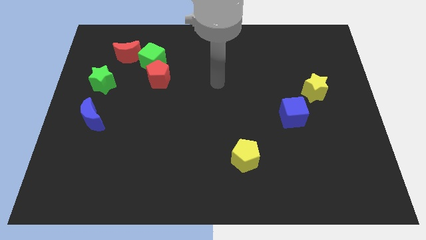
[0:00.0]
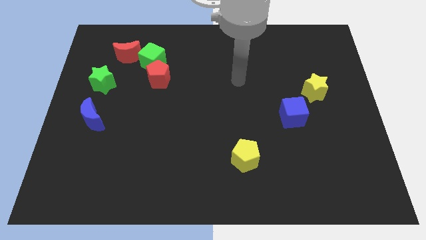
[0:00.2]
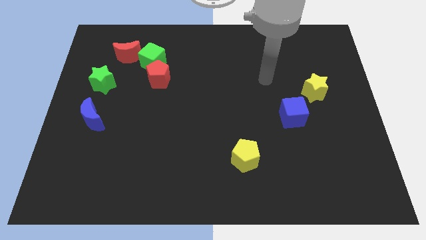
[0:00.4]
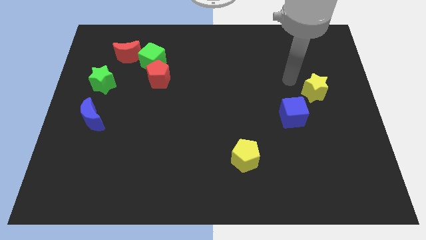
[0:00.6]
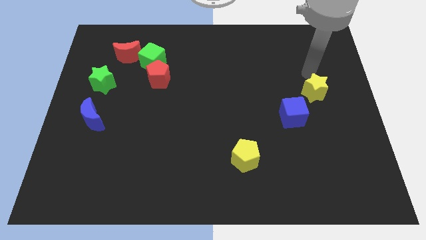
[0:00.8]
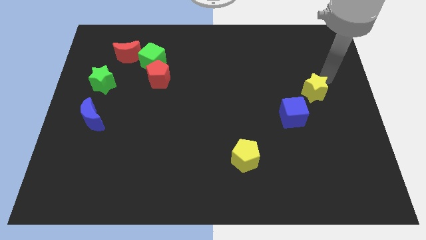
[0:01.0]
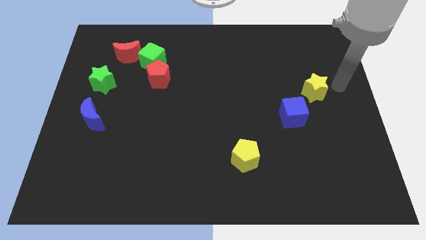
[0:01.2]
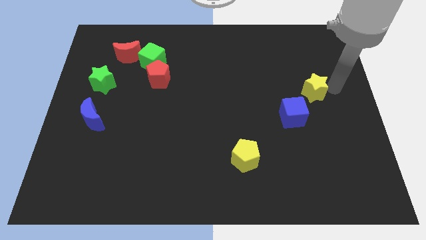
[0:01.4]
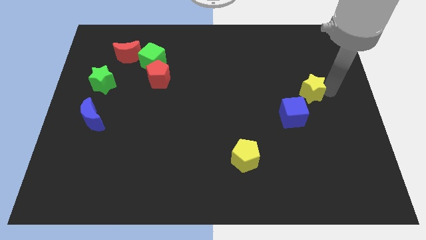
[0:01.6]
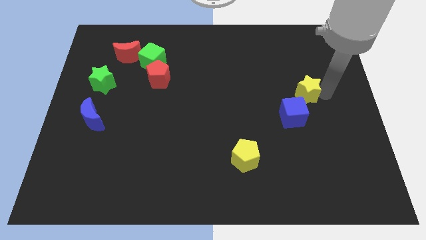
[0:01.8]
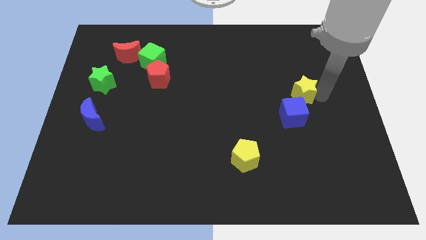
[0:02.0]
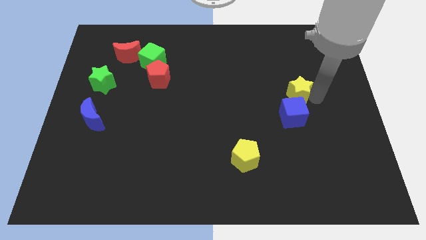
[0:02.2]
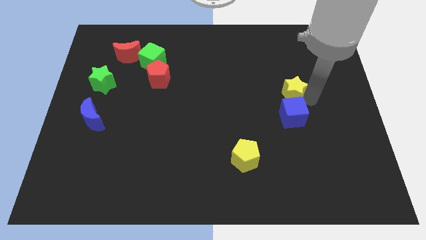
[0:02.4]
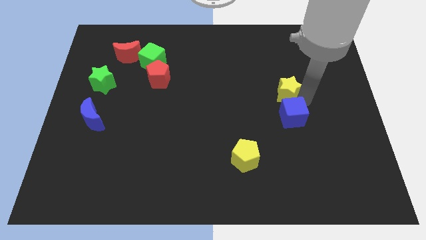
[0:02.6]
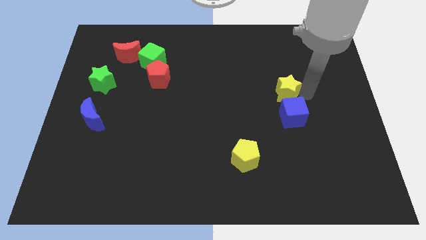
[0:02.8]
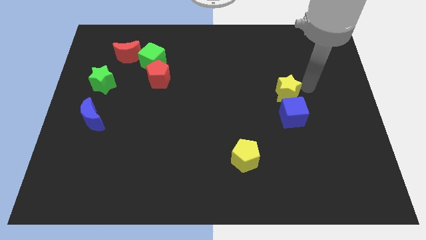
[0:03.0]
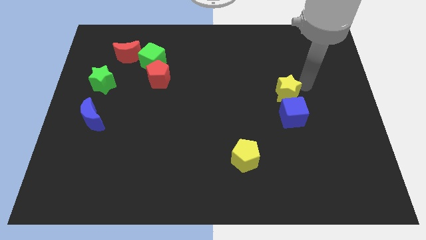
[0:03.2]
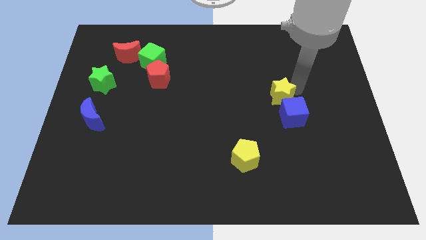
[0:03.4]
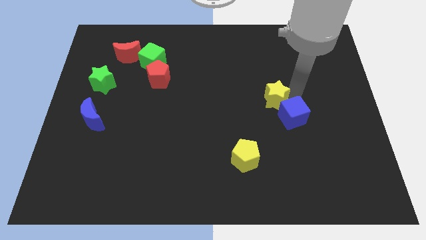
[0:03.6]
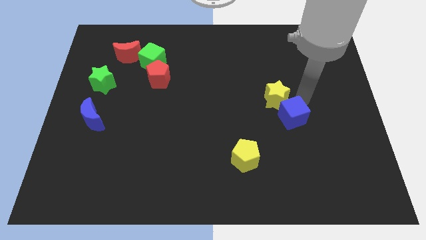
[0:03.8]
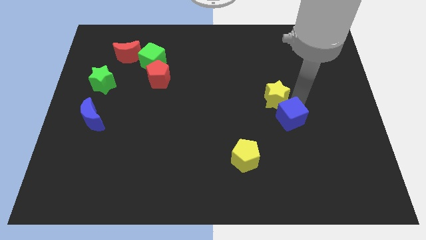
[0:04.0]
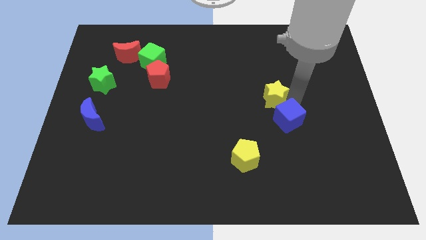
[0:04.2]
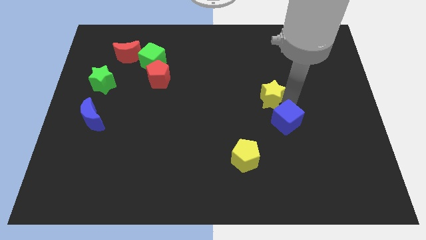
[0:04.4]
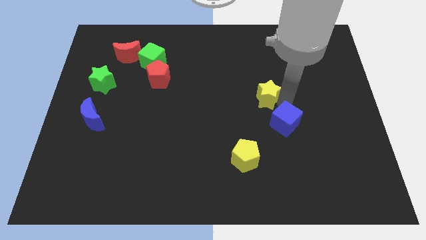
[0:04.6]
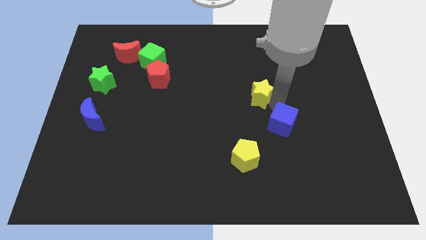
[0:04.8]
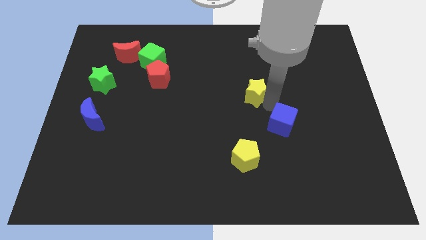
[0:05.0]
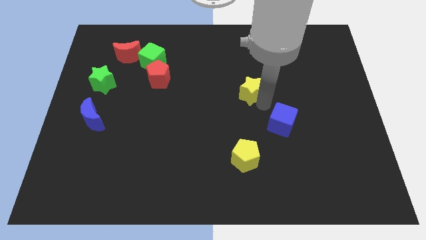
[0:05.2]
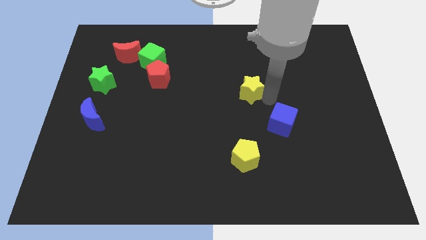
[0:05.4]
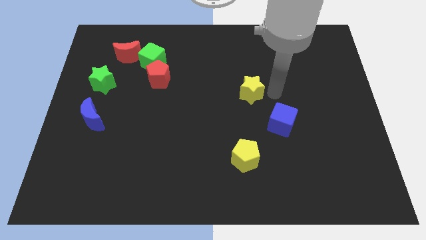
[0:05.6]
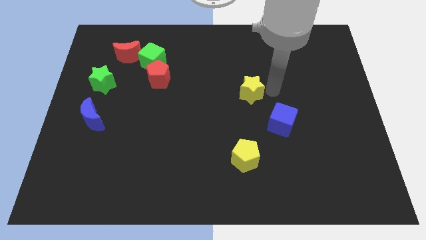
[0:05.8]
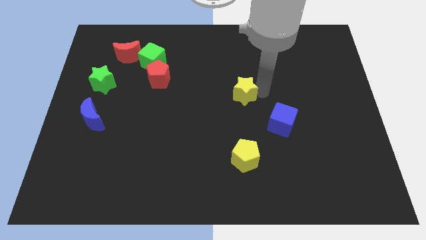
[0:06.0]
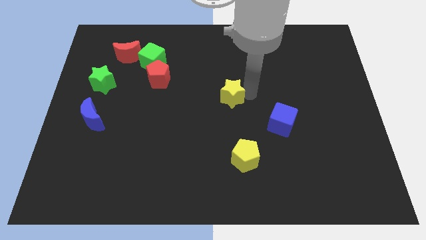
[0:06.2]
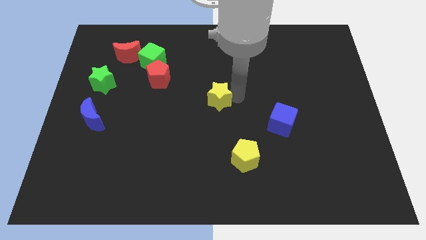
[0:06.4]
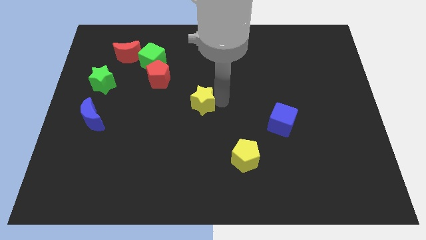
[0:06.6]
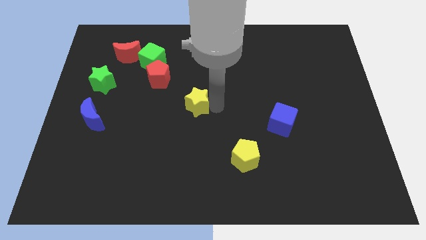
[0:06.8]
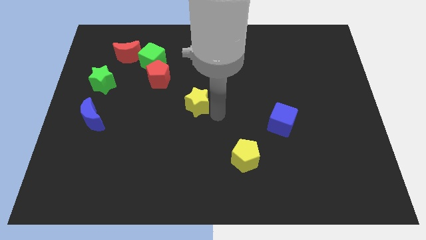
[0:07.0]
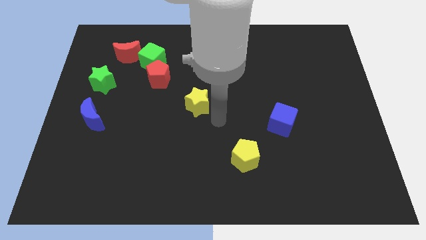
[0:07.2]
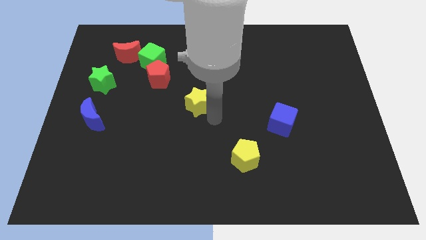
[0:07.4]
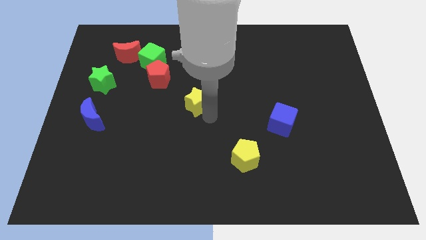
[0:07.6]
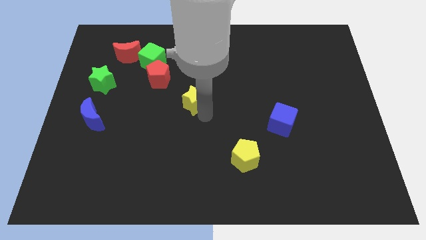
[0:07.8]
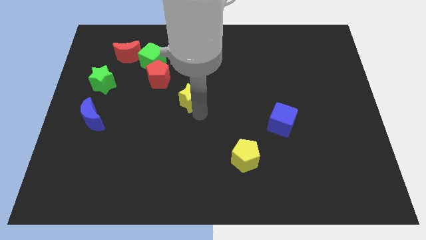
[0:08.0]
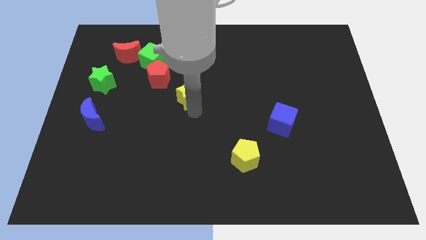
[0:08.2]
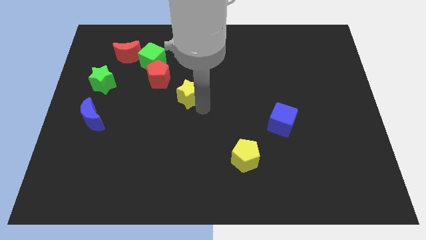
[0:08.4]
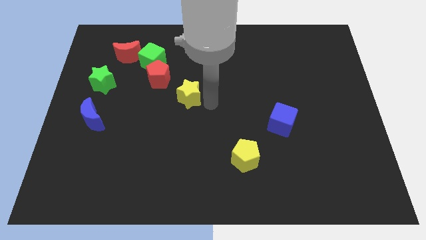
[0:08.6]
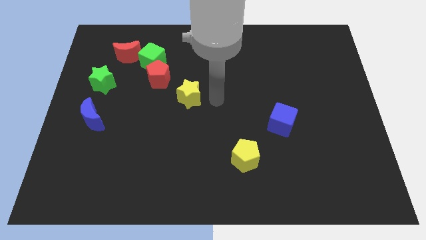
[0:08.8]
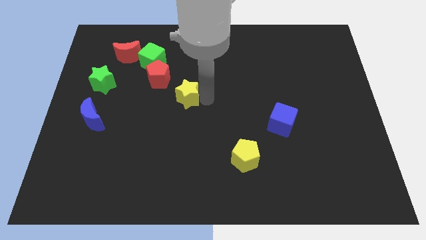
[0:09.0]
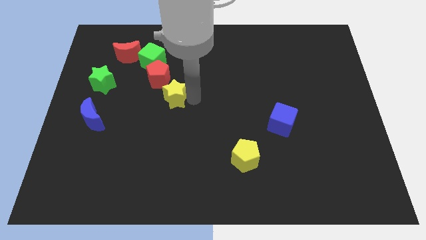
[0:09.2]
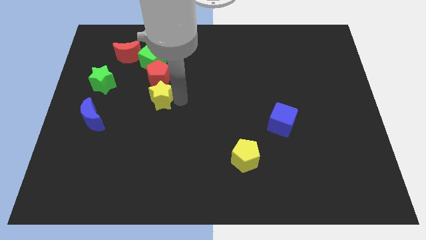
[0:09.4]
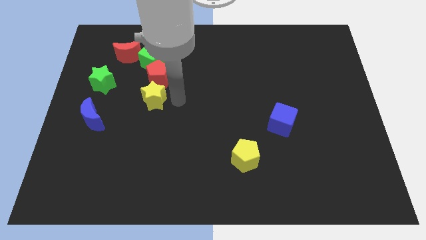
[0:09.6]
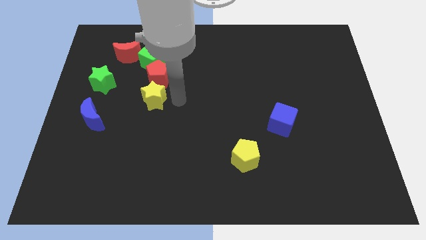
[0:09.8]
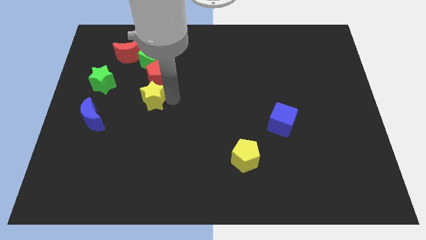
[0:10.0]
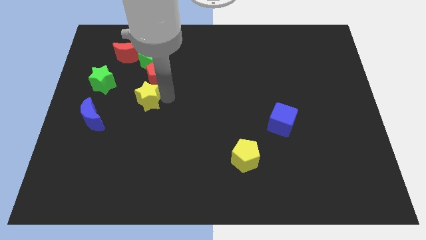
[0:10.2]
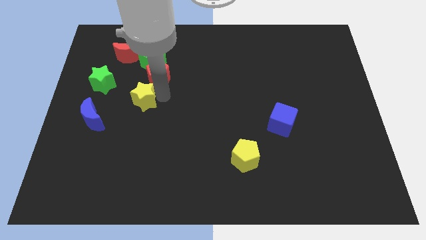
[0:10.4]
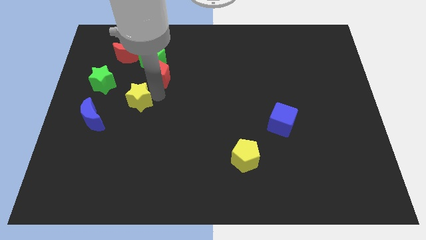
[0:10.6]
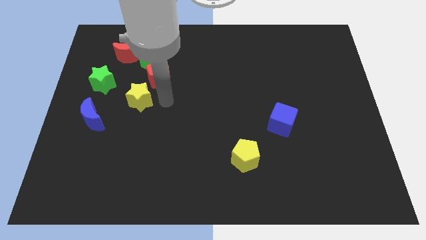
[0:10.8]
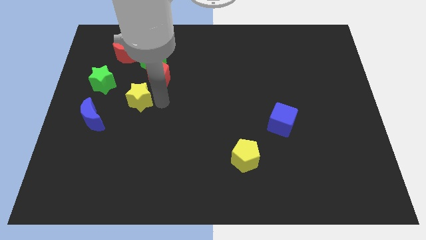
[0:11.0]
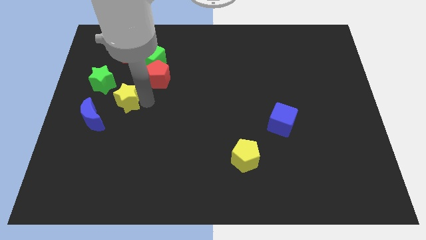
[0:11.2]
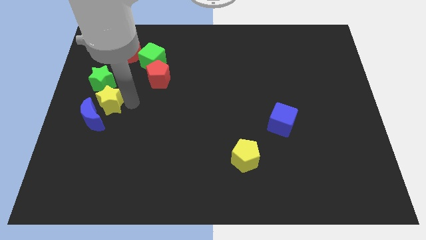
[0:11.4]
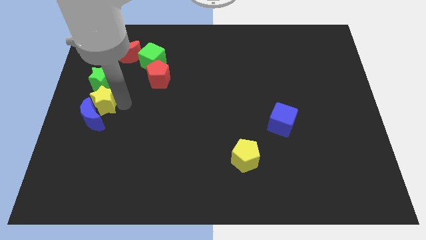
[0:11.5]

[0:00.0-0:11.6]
put the yellow star to the center left

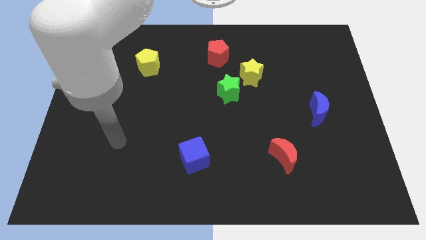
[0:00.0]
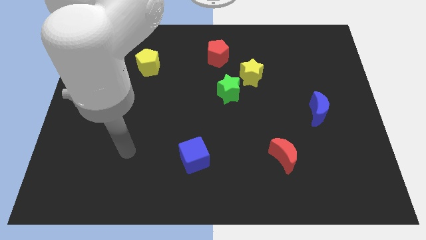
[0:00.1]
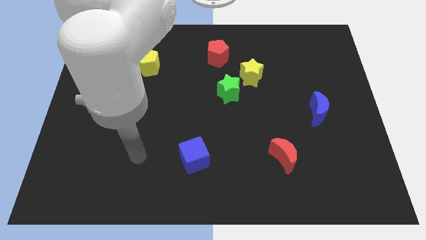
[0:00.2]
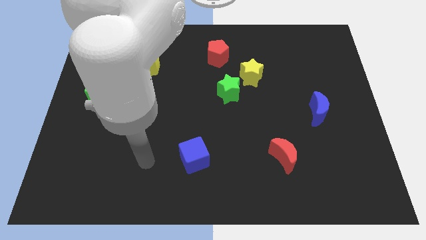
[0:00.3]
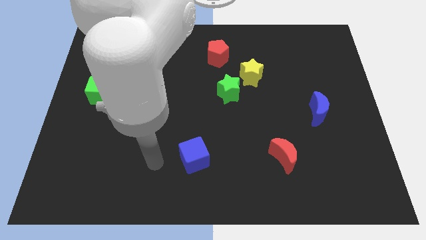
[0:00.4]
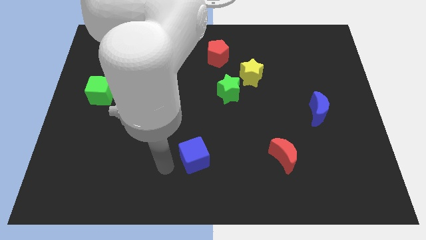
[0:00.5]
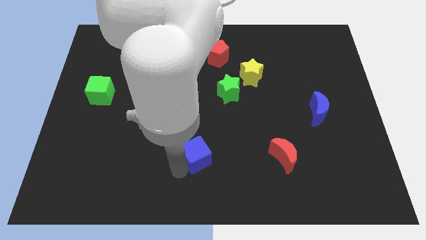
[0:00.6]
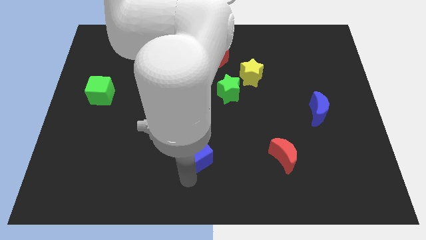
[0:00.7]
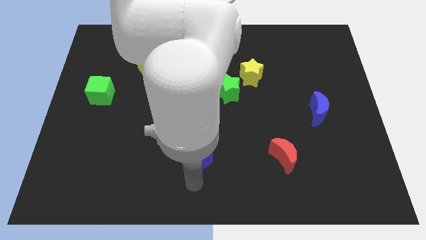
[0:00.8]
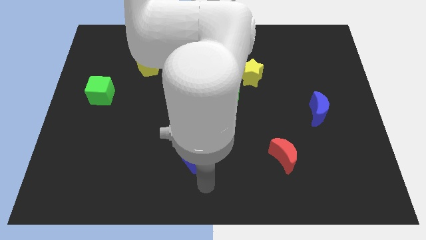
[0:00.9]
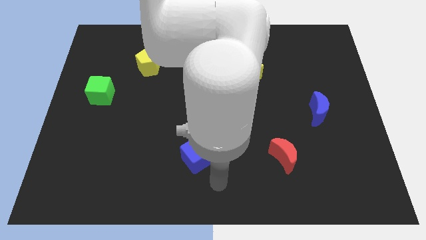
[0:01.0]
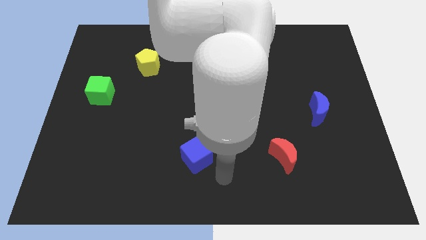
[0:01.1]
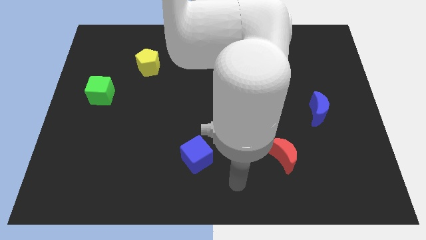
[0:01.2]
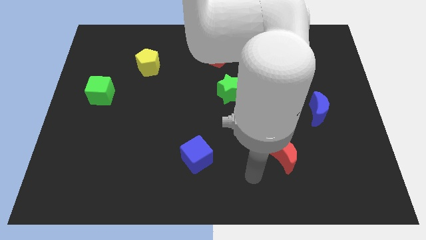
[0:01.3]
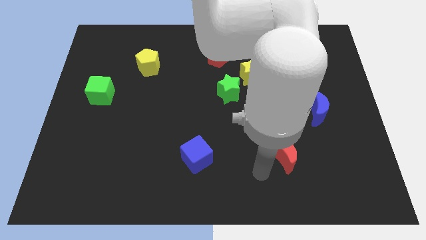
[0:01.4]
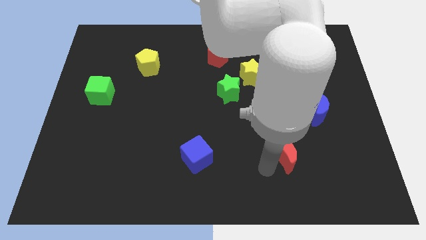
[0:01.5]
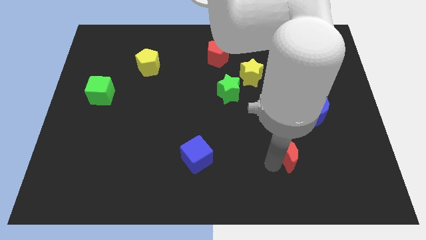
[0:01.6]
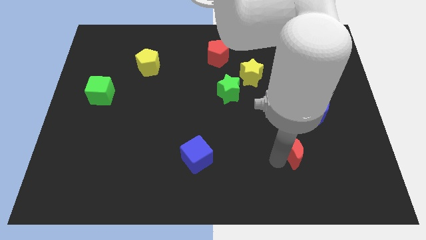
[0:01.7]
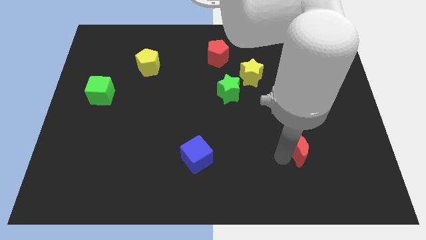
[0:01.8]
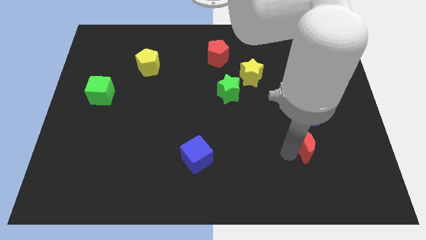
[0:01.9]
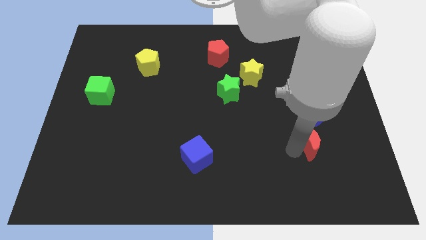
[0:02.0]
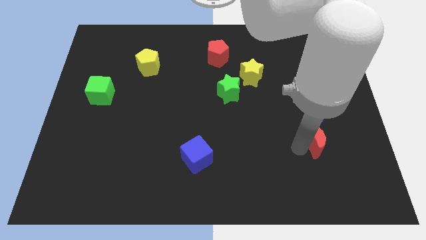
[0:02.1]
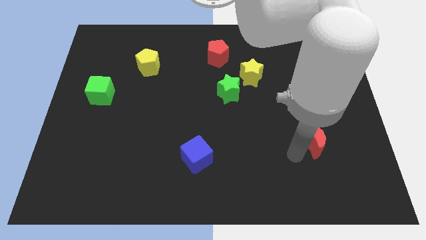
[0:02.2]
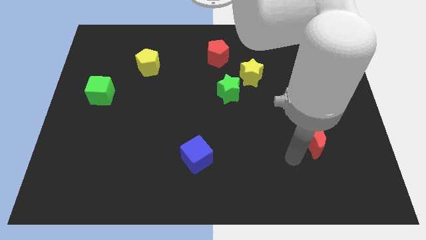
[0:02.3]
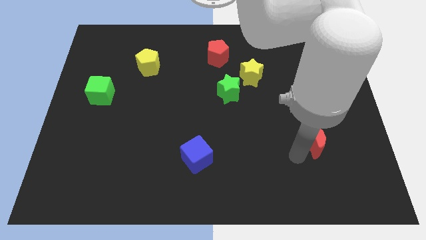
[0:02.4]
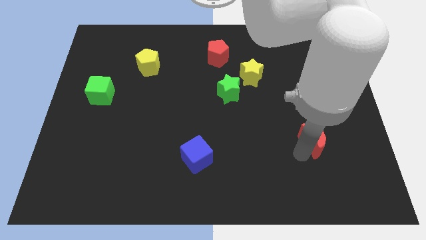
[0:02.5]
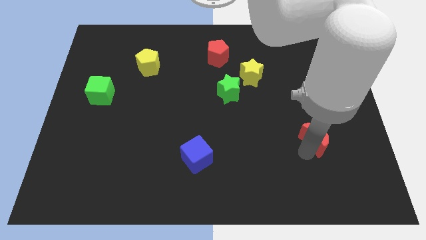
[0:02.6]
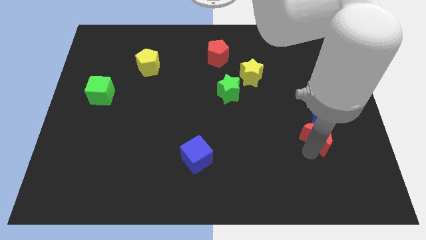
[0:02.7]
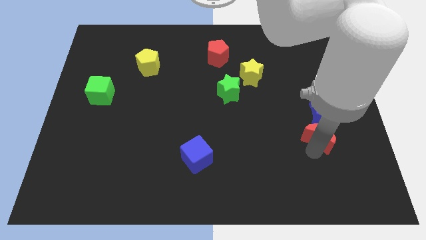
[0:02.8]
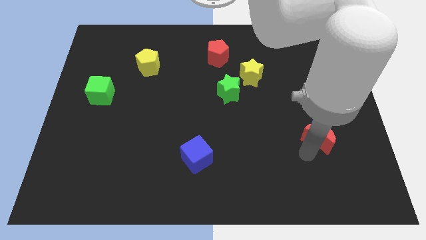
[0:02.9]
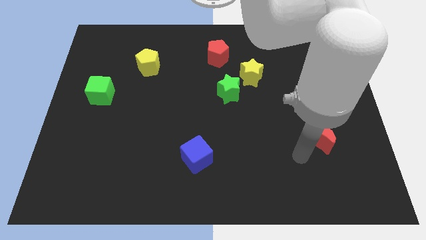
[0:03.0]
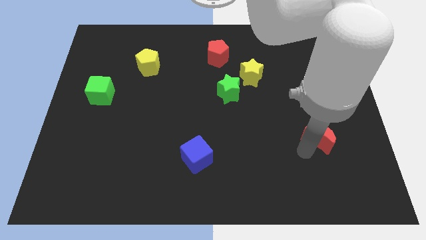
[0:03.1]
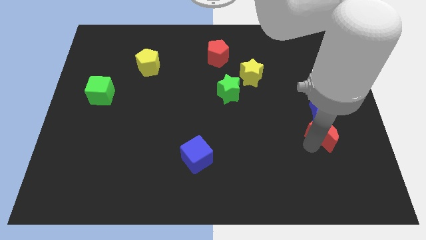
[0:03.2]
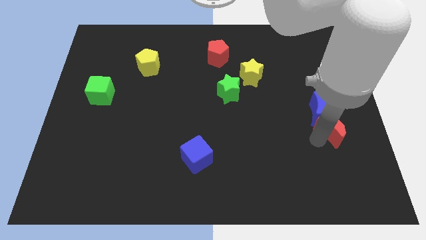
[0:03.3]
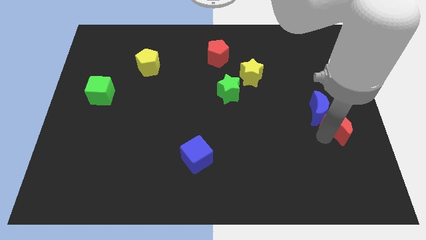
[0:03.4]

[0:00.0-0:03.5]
push the red moon to the center right
